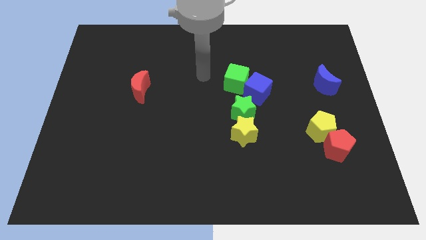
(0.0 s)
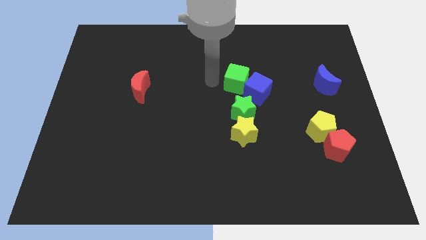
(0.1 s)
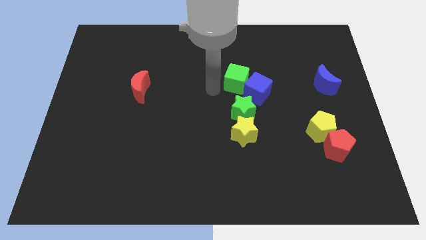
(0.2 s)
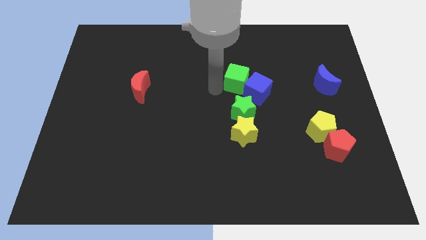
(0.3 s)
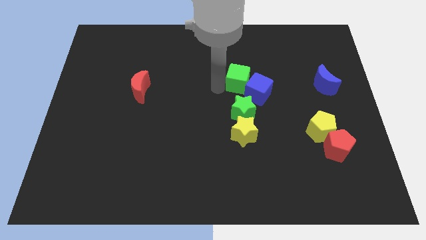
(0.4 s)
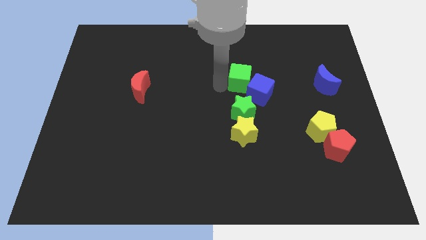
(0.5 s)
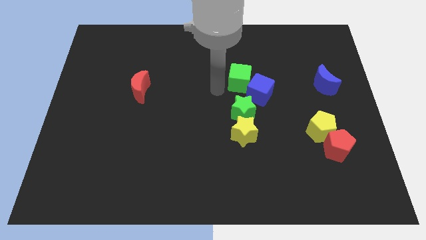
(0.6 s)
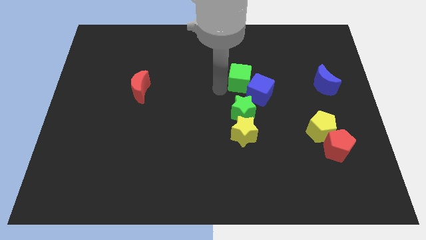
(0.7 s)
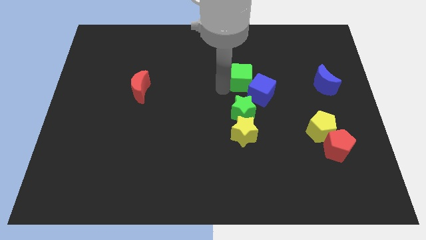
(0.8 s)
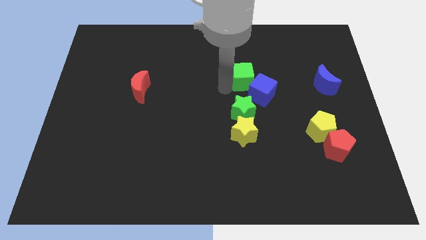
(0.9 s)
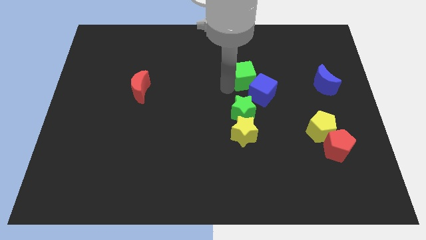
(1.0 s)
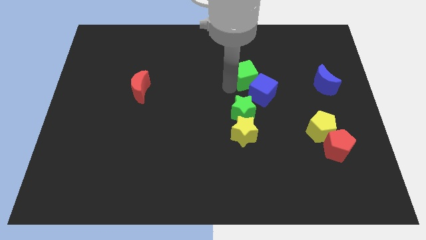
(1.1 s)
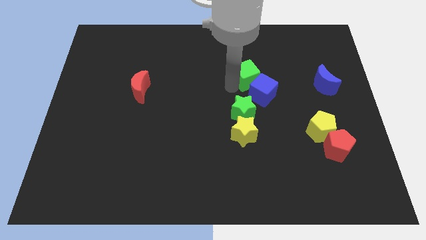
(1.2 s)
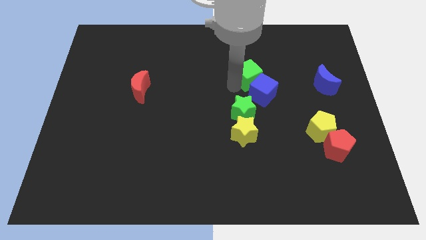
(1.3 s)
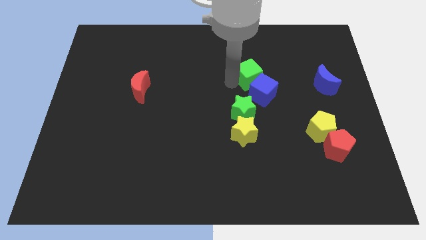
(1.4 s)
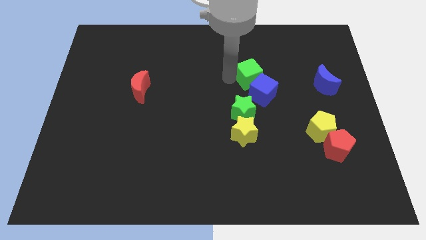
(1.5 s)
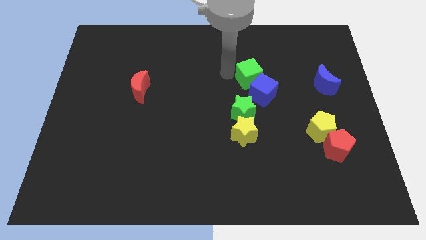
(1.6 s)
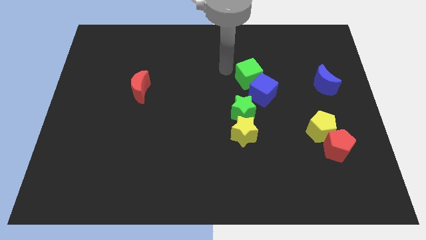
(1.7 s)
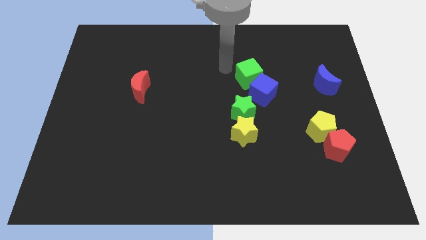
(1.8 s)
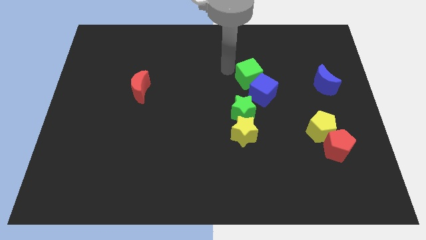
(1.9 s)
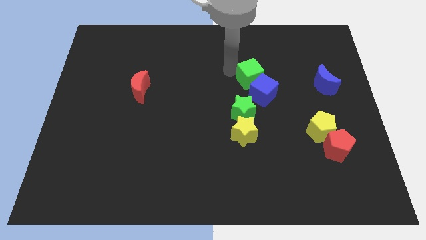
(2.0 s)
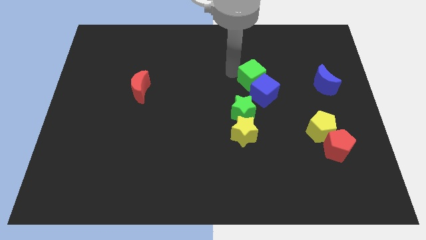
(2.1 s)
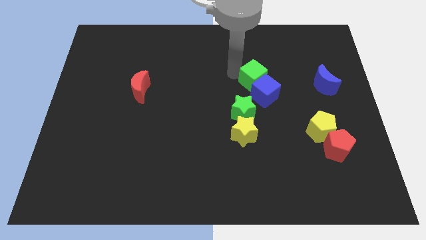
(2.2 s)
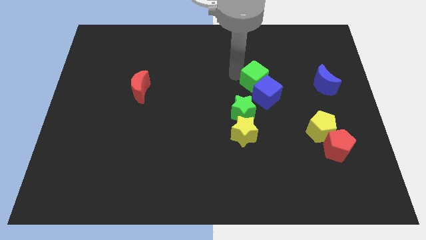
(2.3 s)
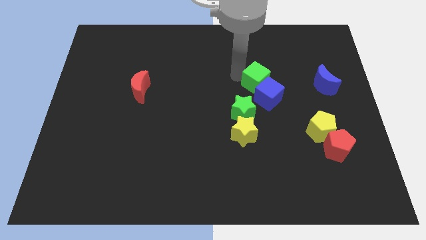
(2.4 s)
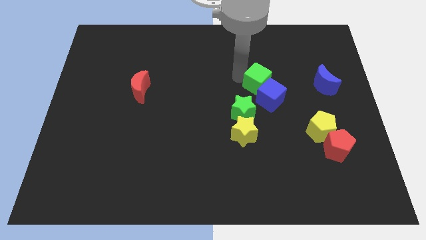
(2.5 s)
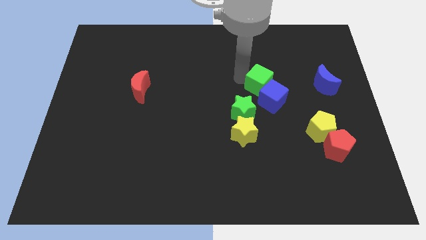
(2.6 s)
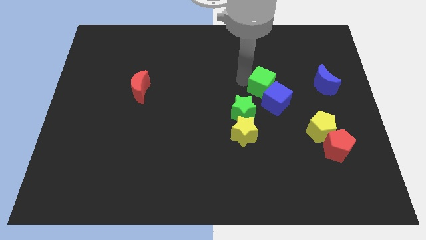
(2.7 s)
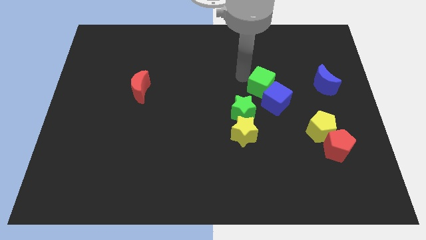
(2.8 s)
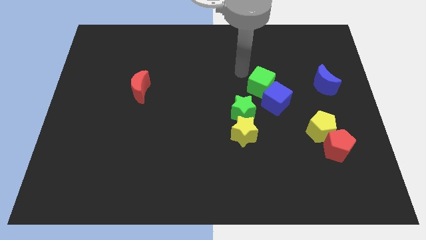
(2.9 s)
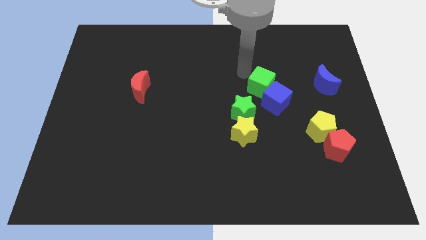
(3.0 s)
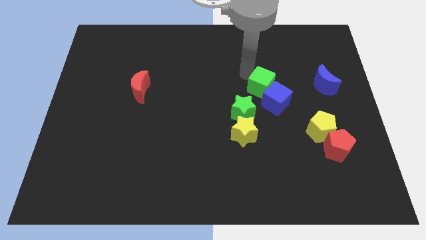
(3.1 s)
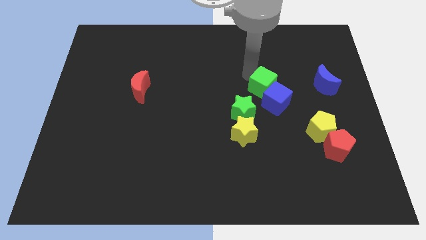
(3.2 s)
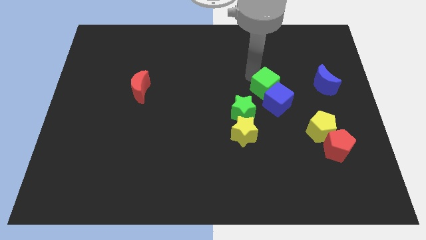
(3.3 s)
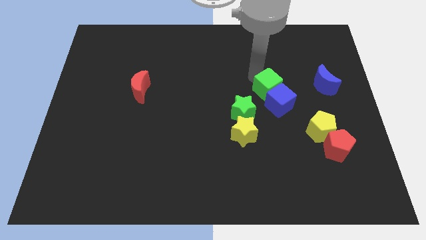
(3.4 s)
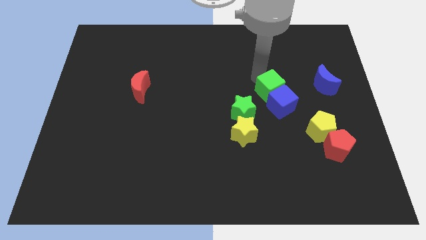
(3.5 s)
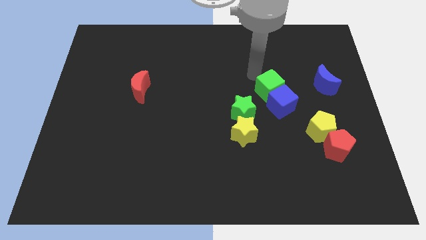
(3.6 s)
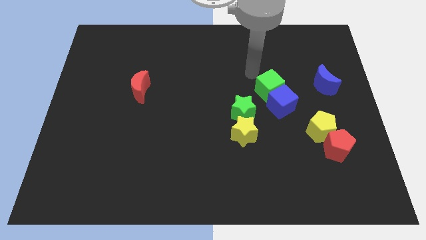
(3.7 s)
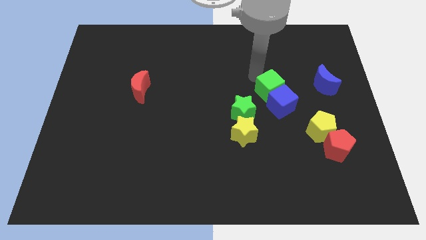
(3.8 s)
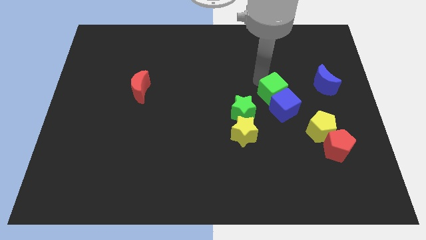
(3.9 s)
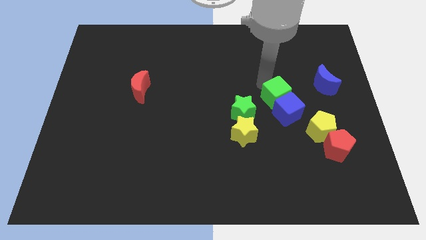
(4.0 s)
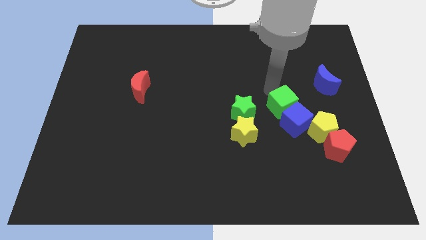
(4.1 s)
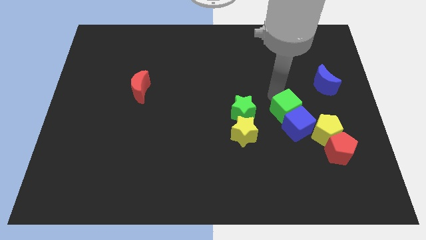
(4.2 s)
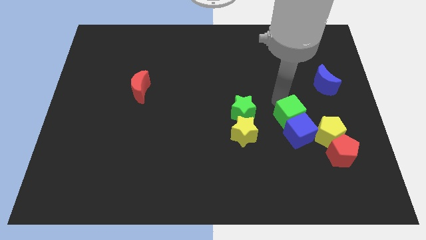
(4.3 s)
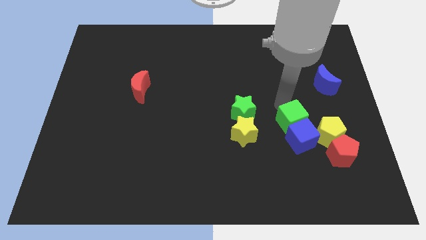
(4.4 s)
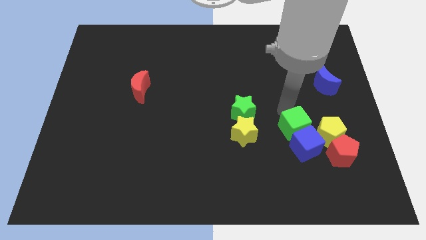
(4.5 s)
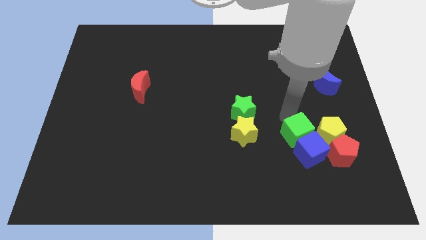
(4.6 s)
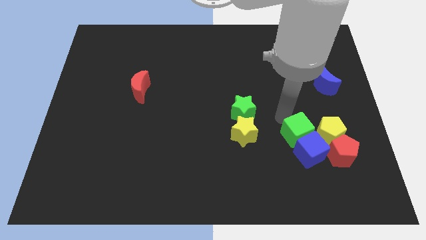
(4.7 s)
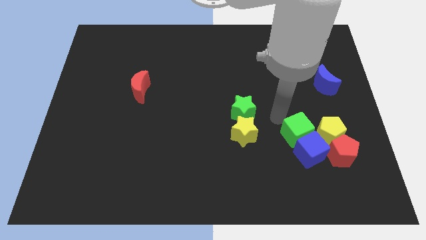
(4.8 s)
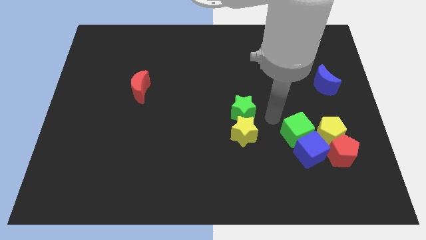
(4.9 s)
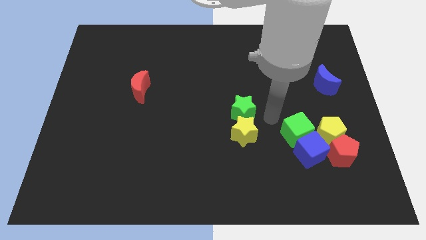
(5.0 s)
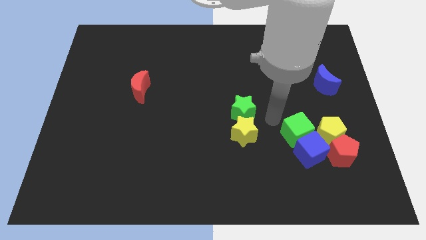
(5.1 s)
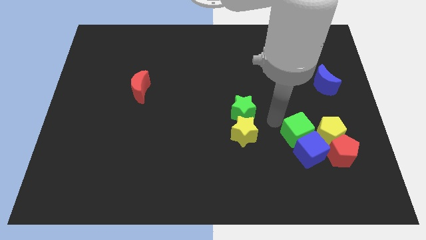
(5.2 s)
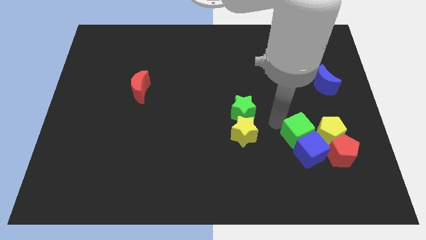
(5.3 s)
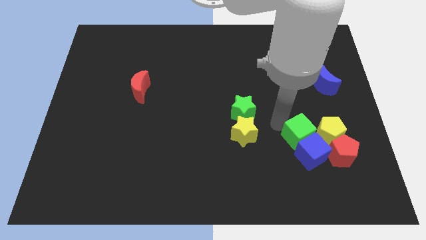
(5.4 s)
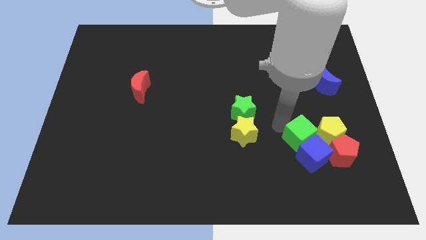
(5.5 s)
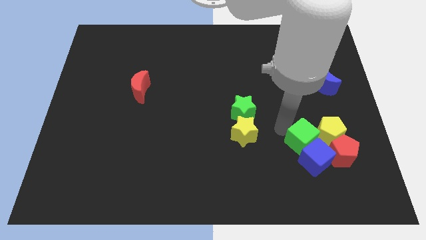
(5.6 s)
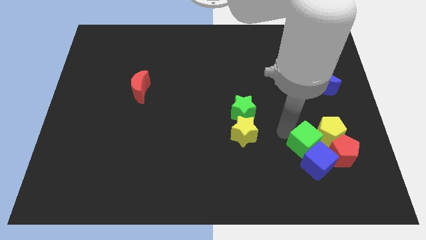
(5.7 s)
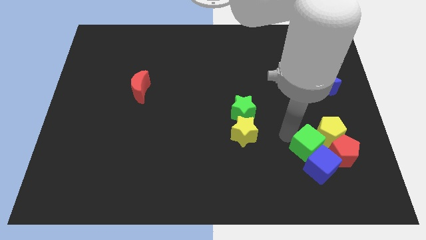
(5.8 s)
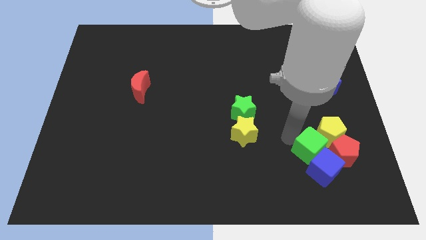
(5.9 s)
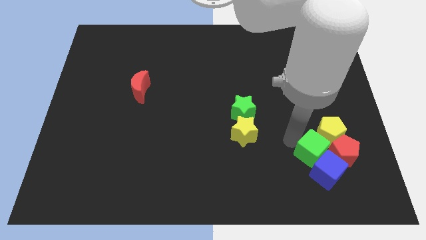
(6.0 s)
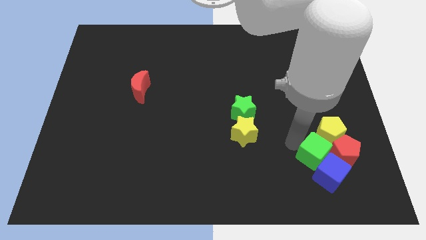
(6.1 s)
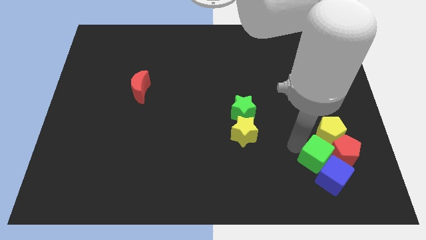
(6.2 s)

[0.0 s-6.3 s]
slide the green cube close to the red pentagon

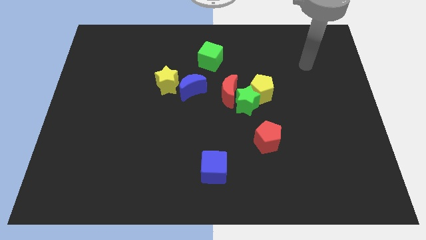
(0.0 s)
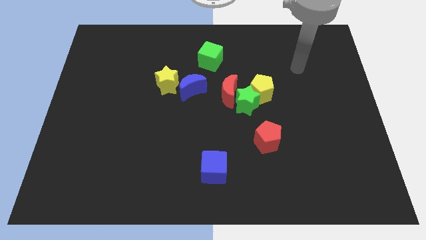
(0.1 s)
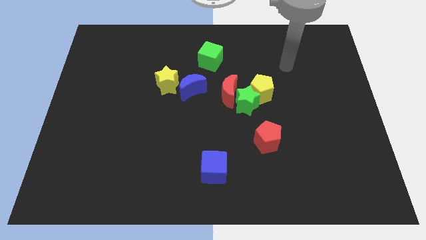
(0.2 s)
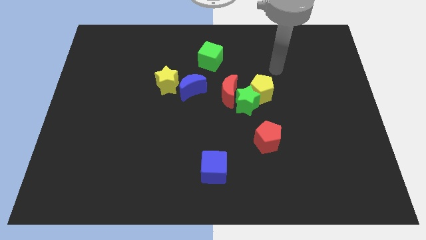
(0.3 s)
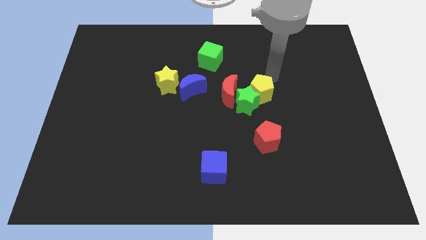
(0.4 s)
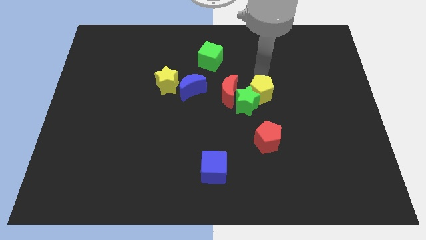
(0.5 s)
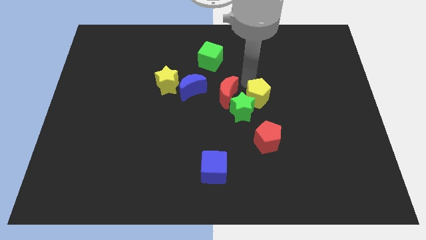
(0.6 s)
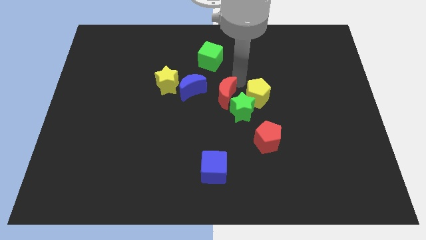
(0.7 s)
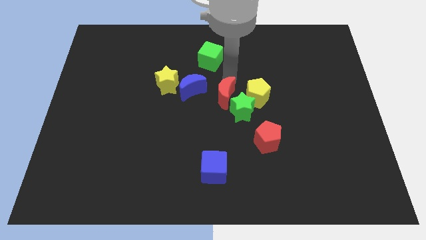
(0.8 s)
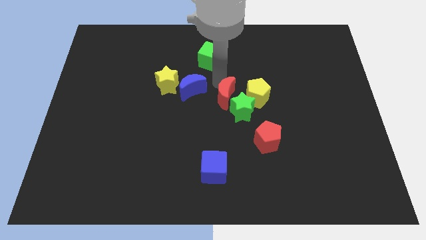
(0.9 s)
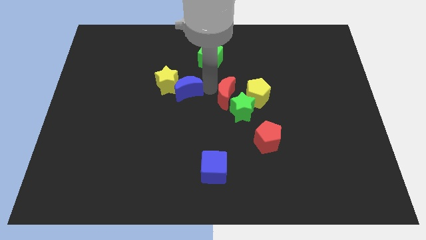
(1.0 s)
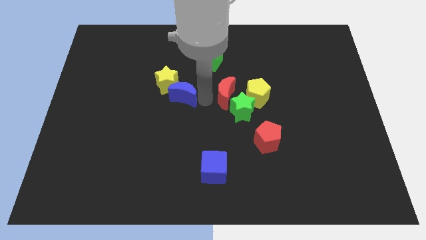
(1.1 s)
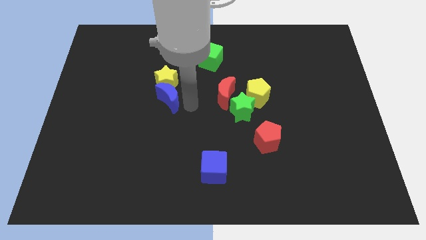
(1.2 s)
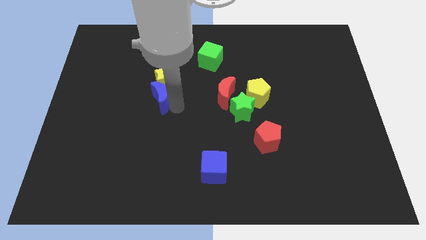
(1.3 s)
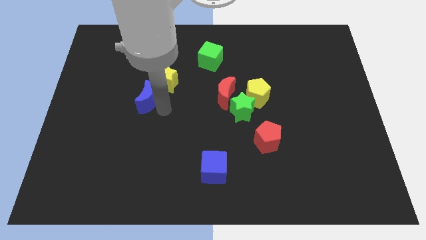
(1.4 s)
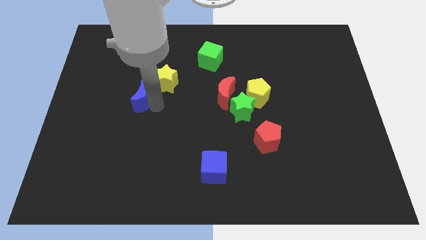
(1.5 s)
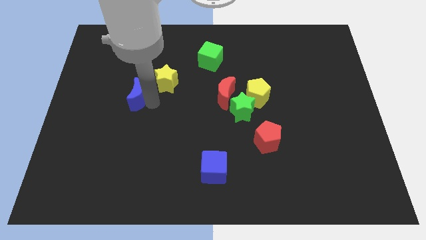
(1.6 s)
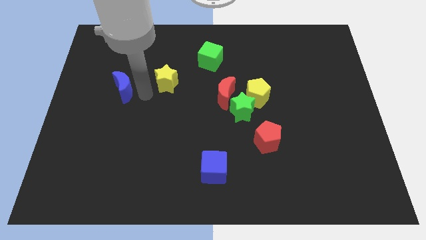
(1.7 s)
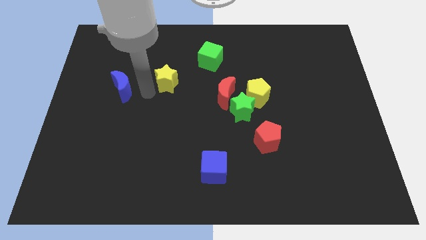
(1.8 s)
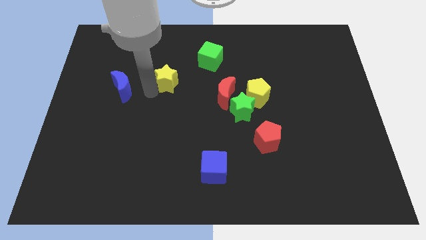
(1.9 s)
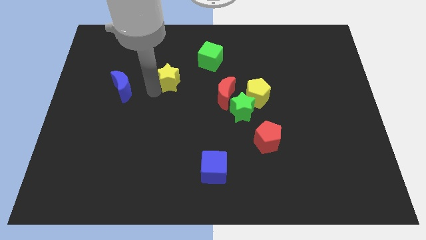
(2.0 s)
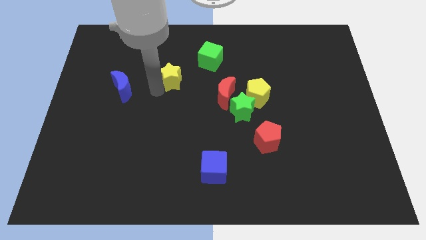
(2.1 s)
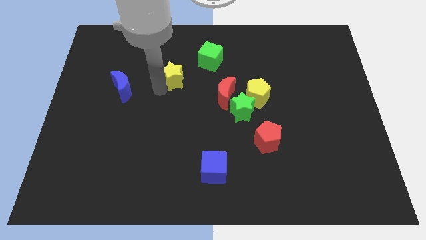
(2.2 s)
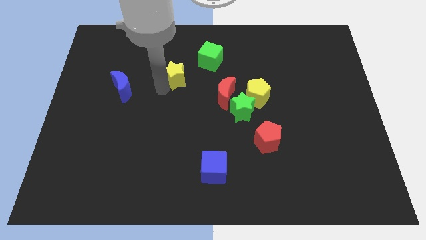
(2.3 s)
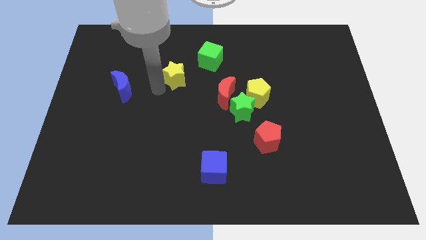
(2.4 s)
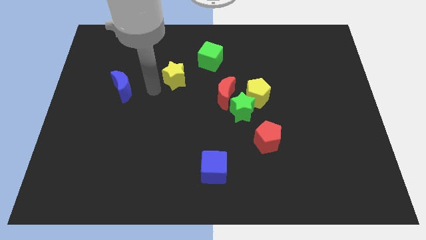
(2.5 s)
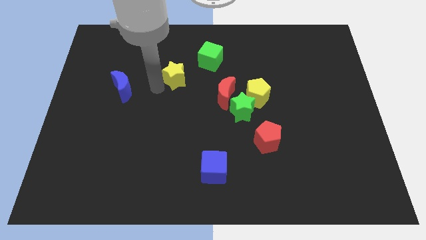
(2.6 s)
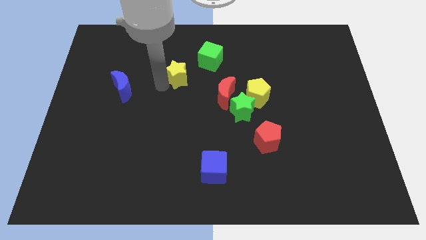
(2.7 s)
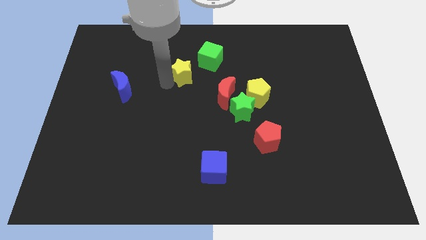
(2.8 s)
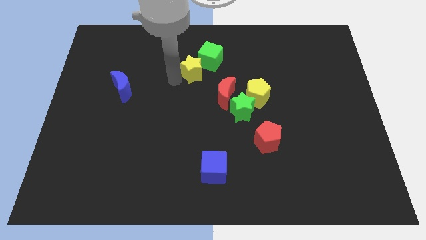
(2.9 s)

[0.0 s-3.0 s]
slide the yellow star towards the green cube
